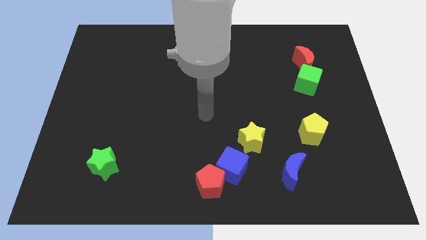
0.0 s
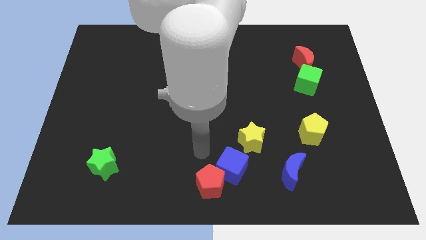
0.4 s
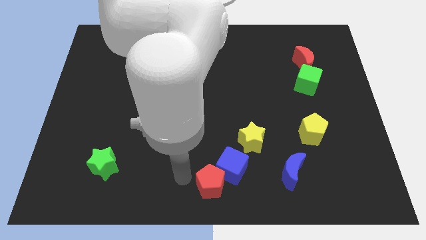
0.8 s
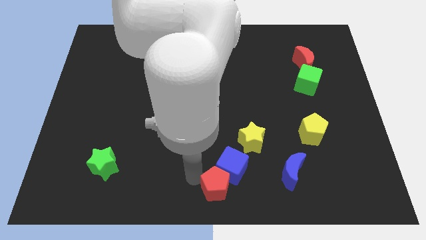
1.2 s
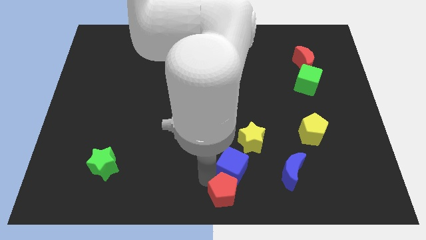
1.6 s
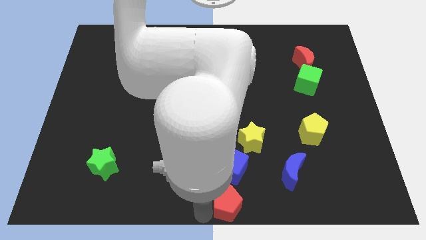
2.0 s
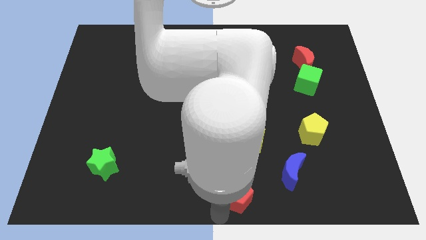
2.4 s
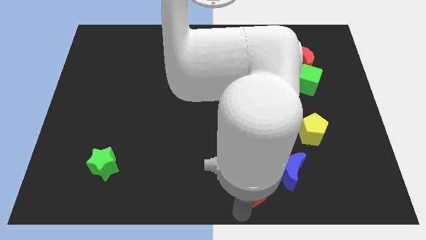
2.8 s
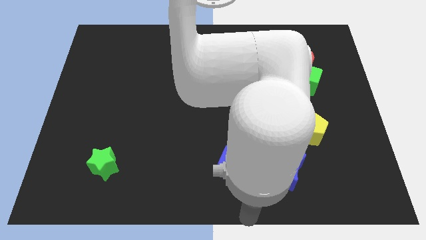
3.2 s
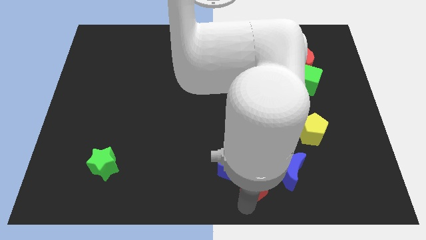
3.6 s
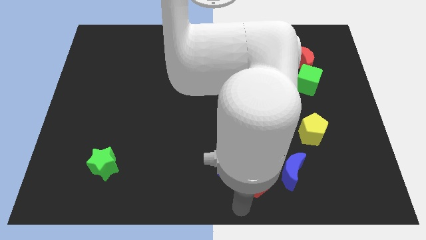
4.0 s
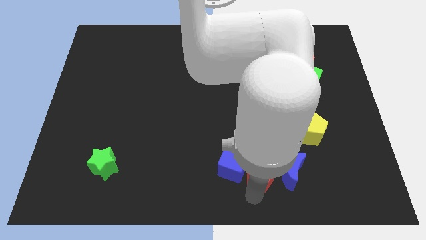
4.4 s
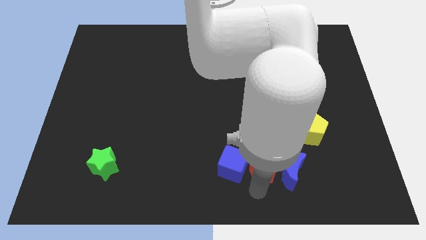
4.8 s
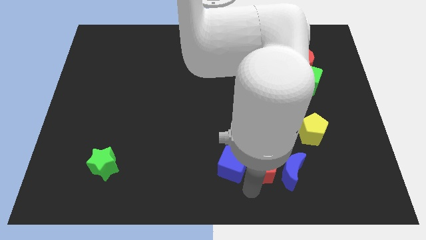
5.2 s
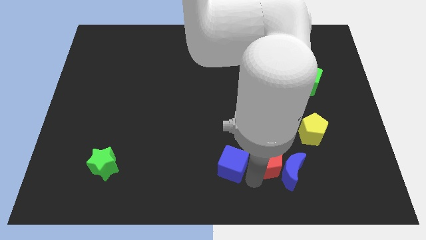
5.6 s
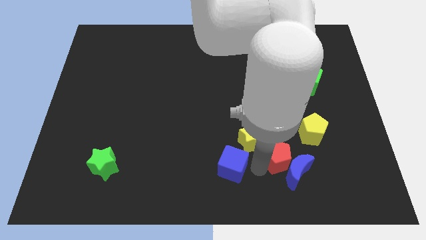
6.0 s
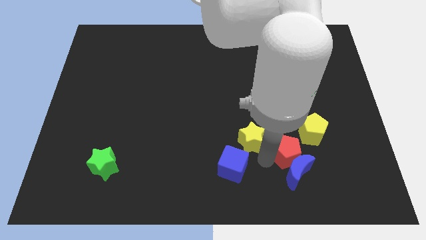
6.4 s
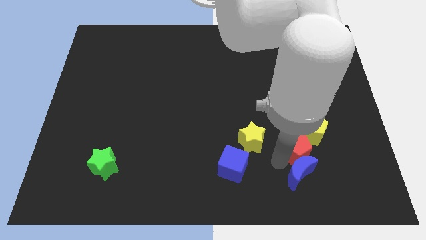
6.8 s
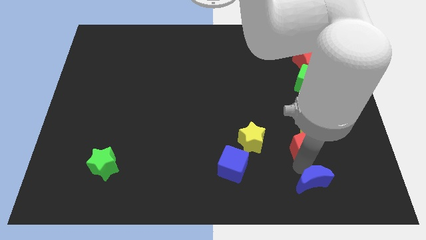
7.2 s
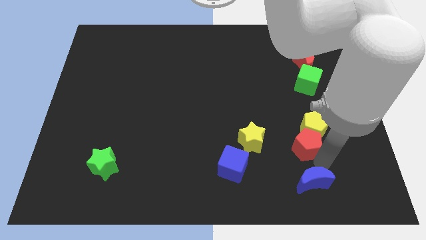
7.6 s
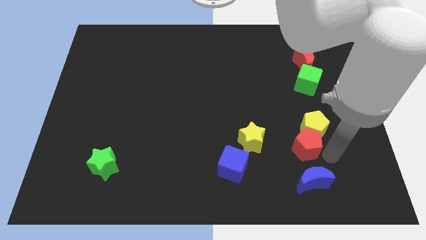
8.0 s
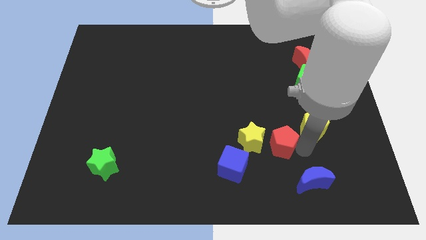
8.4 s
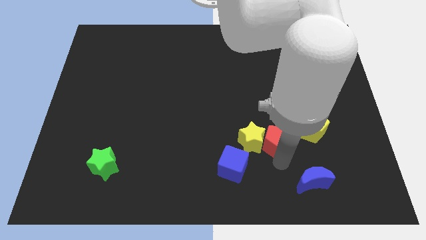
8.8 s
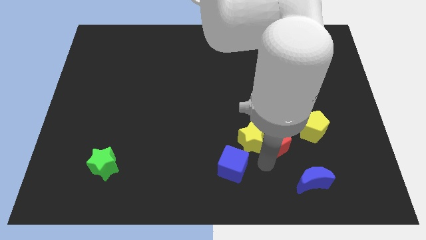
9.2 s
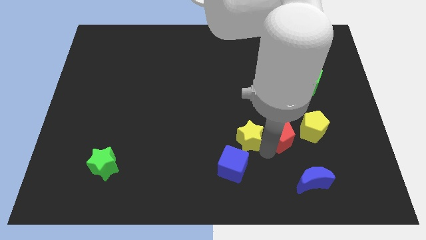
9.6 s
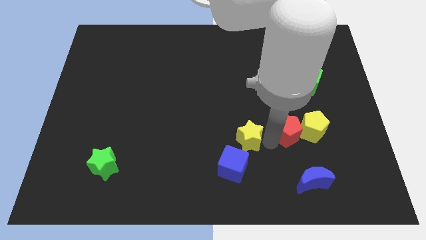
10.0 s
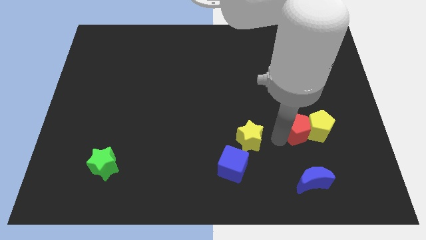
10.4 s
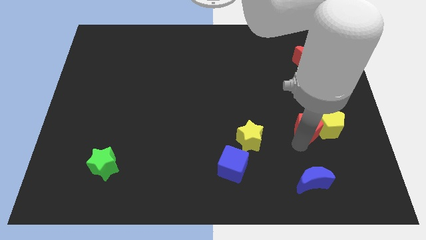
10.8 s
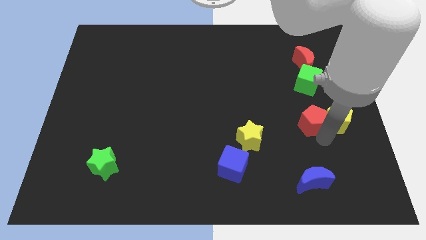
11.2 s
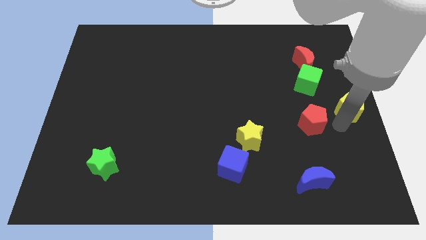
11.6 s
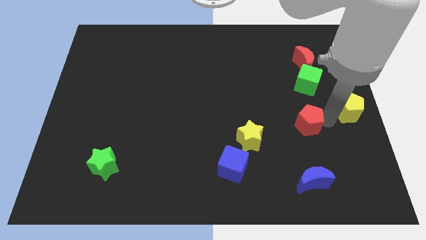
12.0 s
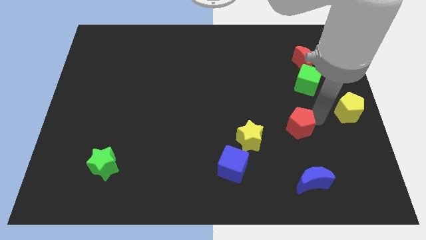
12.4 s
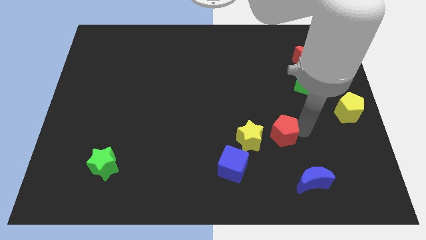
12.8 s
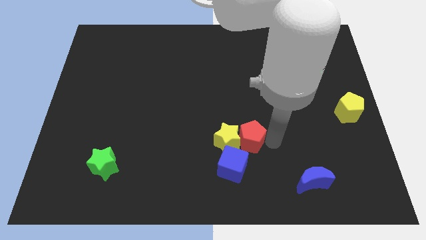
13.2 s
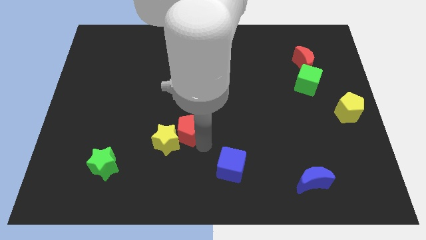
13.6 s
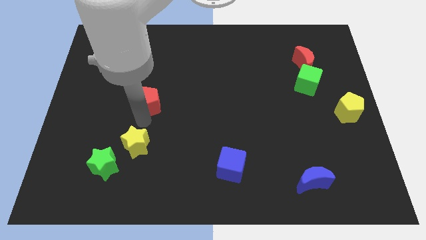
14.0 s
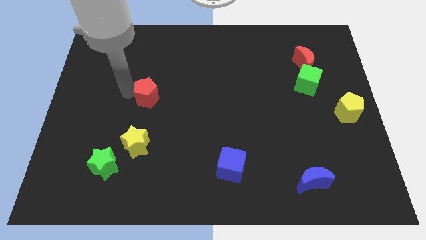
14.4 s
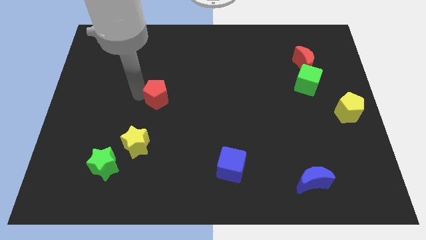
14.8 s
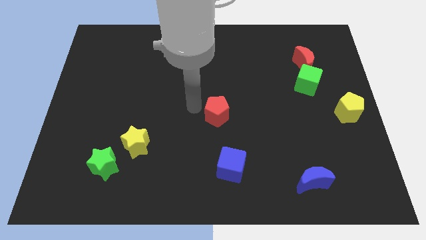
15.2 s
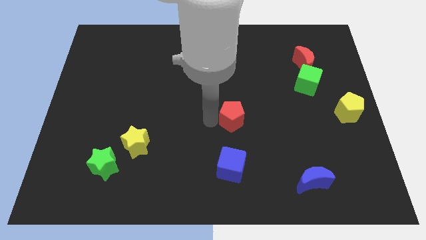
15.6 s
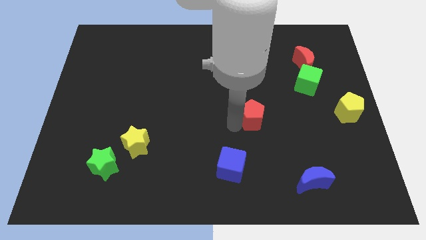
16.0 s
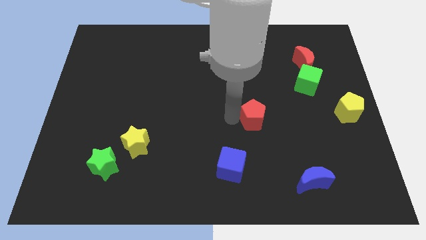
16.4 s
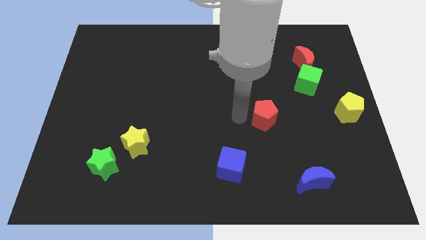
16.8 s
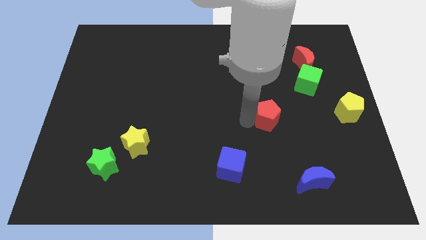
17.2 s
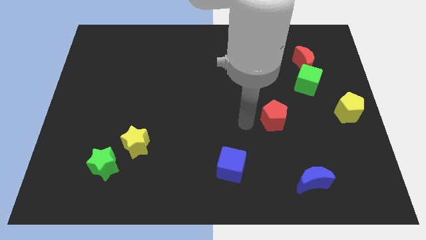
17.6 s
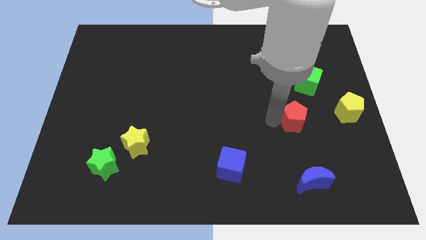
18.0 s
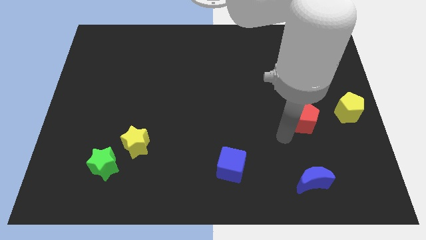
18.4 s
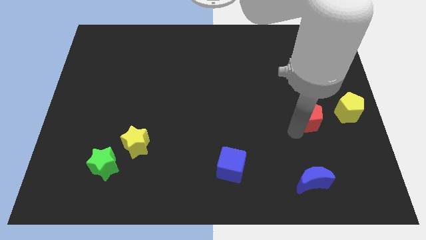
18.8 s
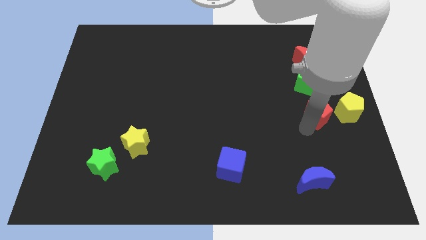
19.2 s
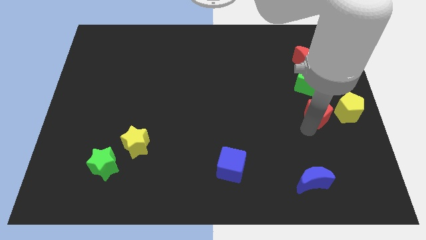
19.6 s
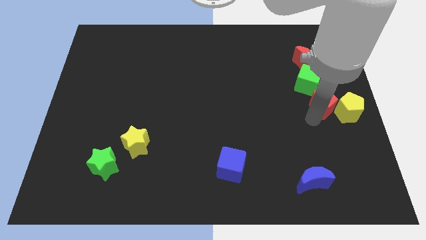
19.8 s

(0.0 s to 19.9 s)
put the red pentagon to the bottom right side of the green cube

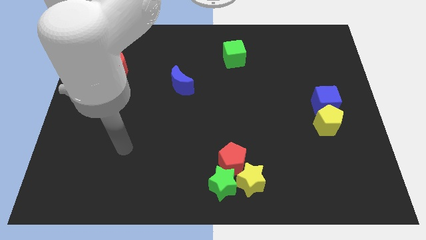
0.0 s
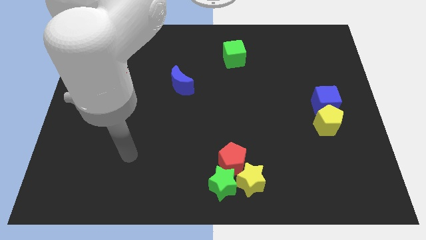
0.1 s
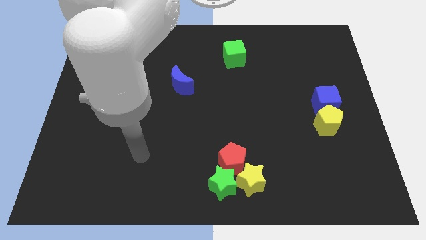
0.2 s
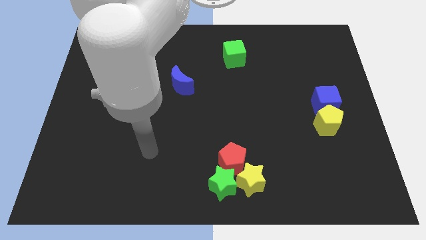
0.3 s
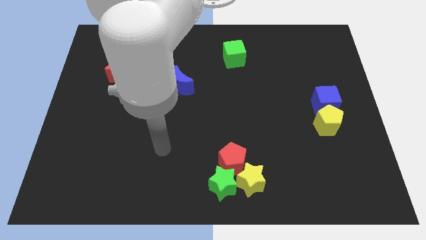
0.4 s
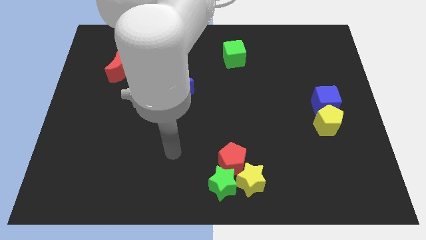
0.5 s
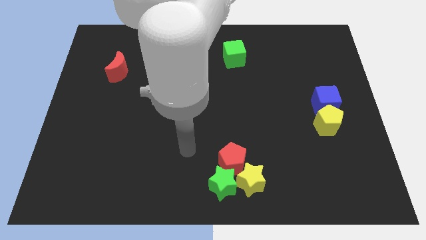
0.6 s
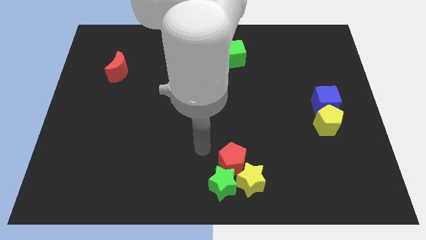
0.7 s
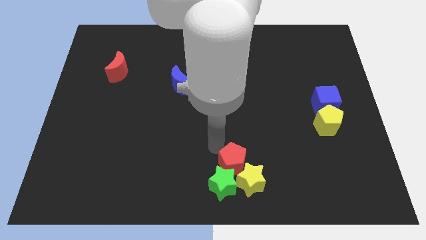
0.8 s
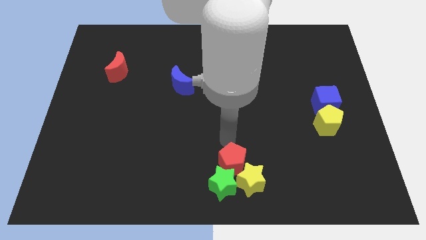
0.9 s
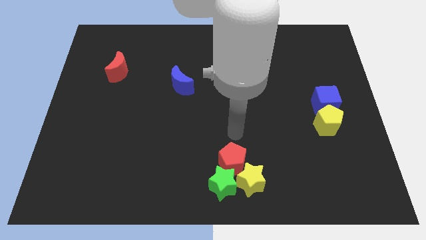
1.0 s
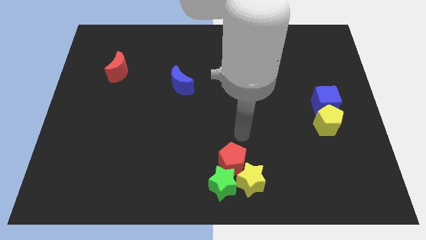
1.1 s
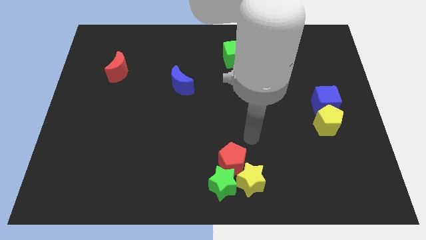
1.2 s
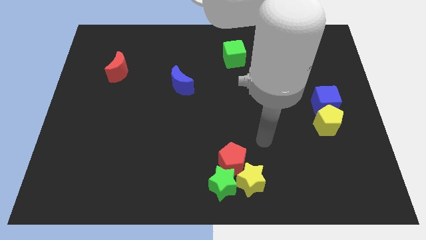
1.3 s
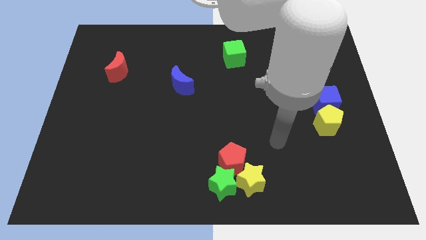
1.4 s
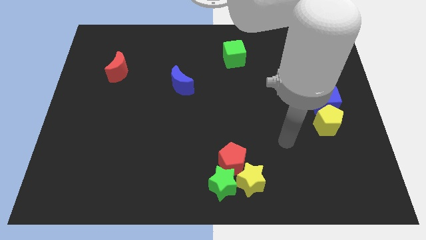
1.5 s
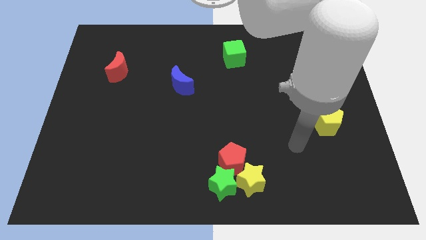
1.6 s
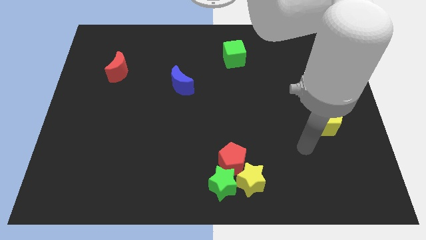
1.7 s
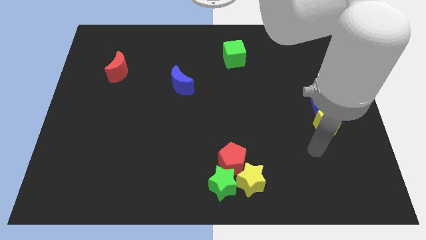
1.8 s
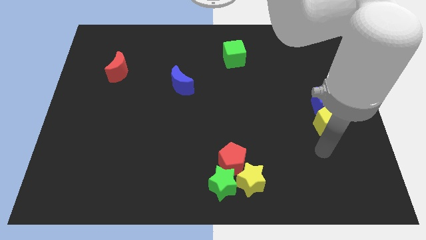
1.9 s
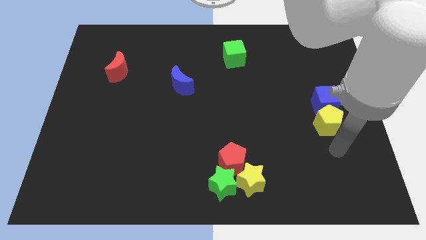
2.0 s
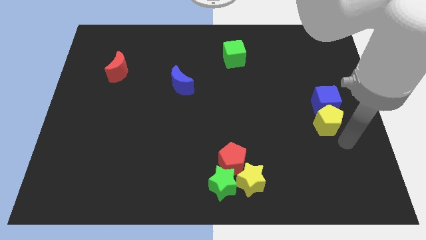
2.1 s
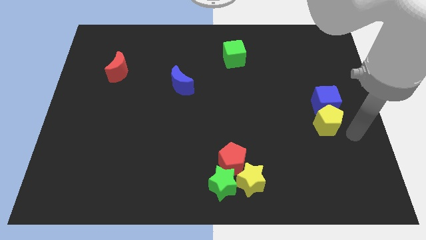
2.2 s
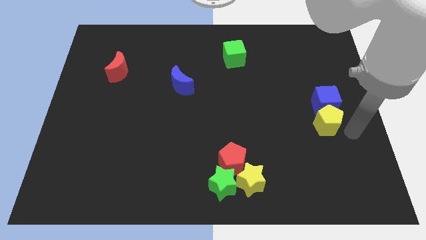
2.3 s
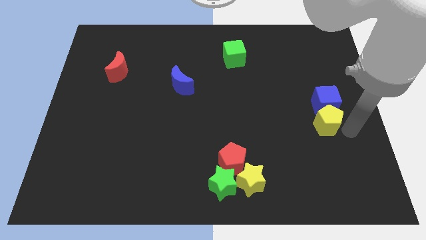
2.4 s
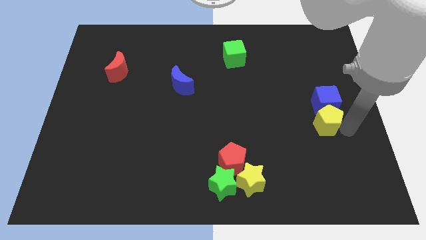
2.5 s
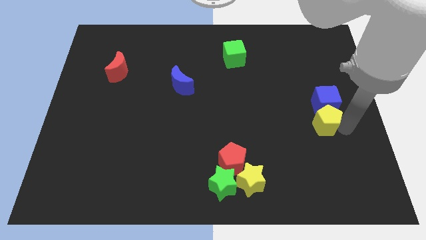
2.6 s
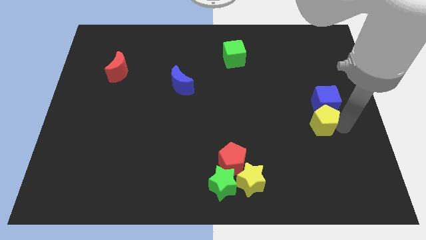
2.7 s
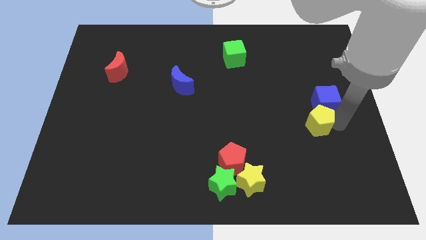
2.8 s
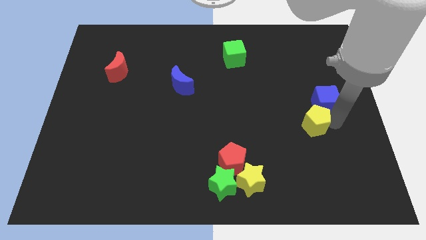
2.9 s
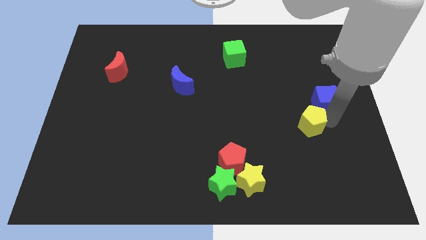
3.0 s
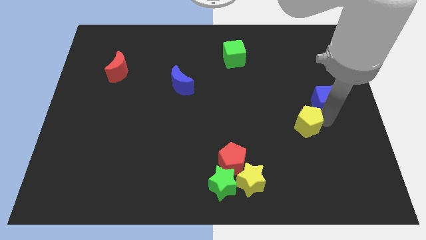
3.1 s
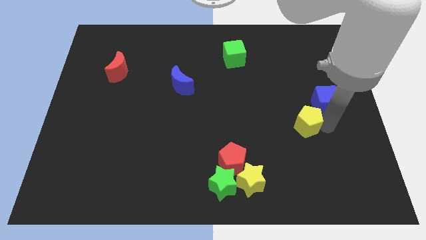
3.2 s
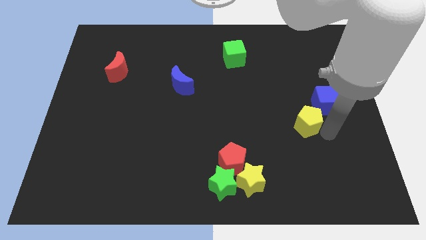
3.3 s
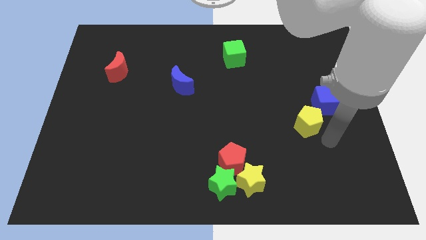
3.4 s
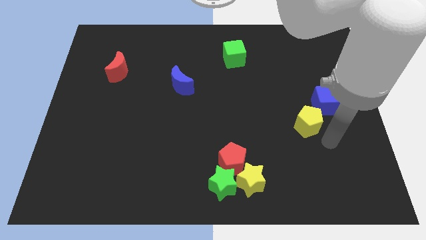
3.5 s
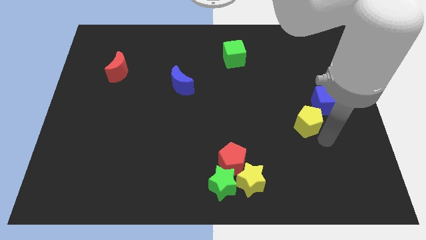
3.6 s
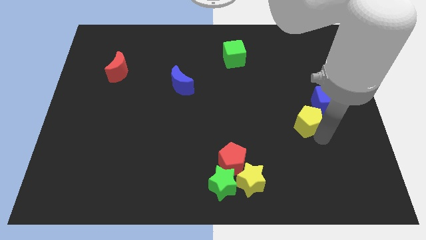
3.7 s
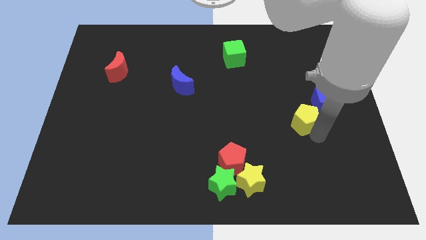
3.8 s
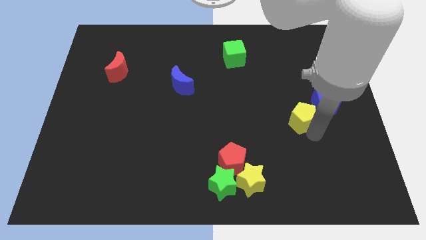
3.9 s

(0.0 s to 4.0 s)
push the yellow pentagon just left of the blue cube
